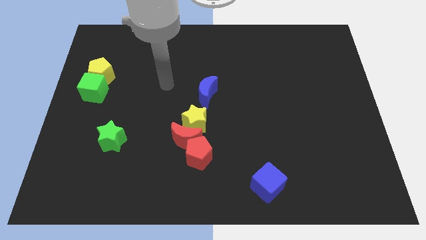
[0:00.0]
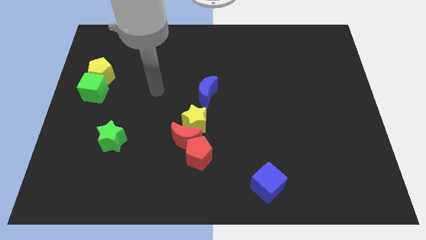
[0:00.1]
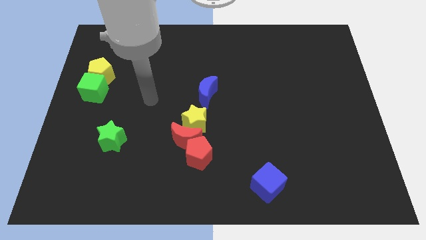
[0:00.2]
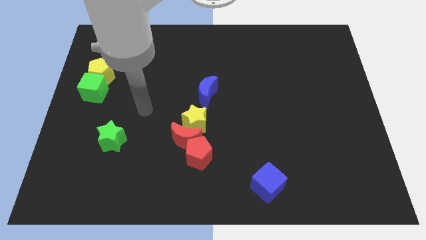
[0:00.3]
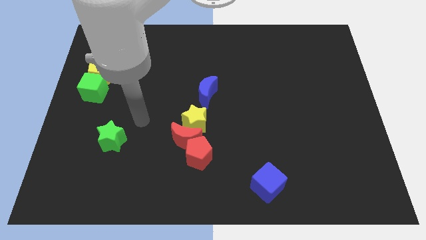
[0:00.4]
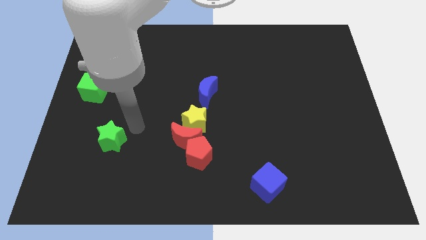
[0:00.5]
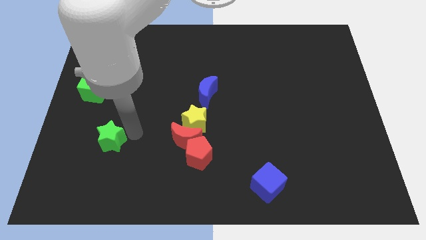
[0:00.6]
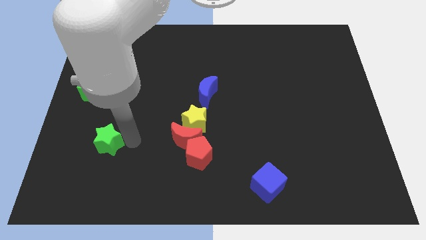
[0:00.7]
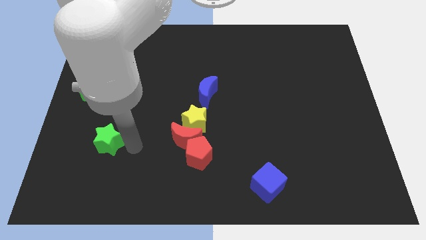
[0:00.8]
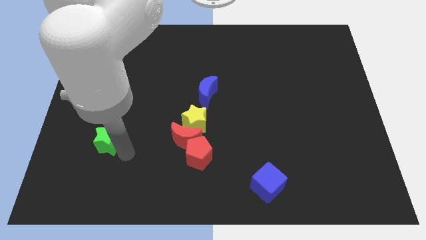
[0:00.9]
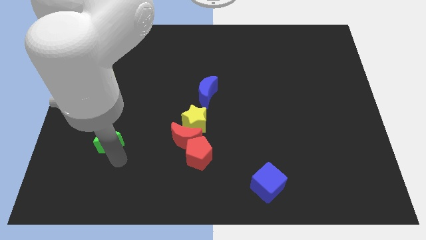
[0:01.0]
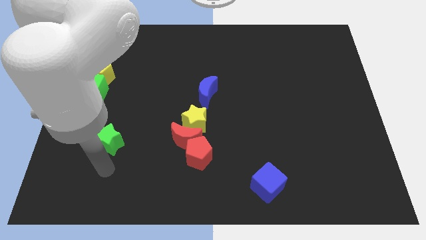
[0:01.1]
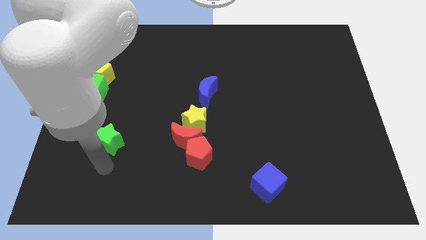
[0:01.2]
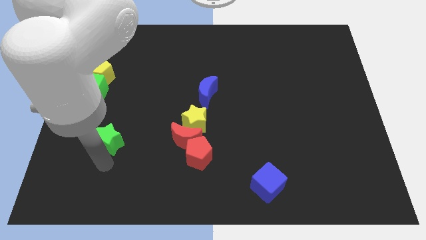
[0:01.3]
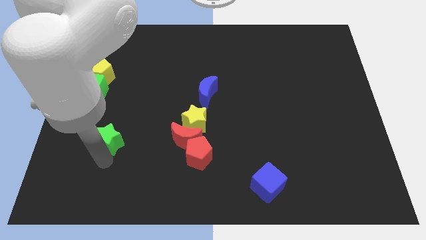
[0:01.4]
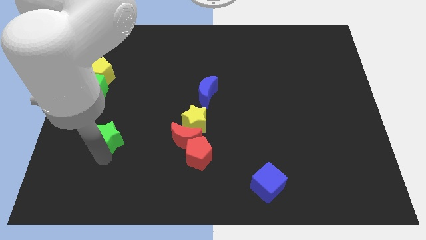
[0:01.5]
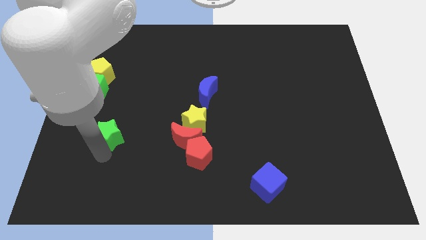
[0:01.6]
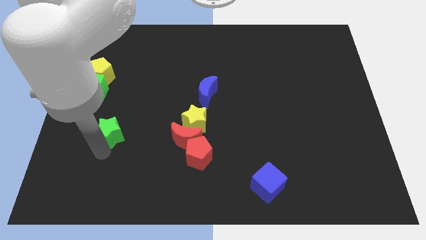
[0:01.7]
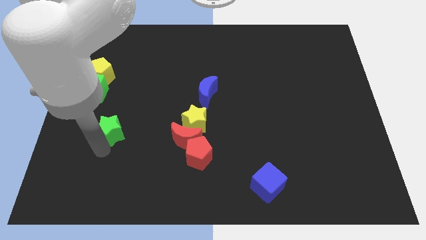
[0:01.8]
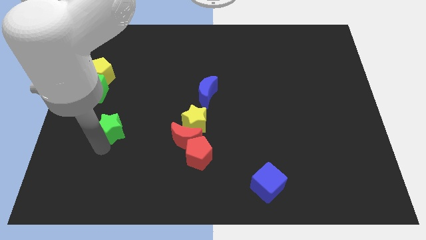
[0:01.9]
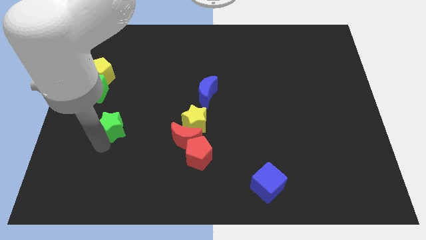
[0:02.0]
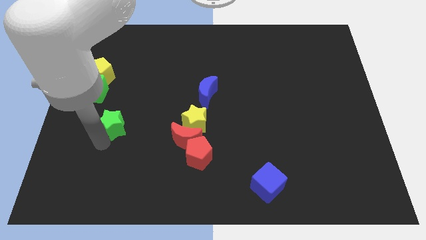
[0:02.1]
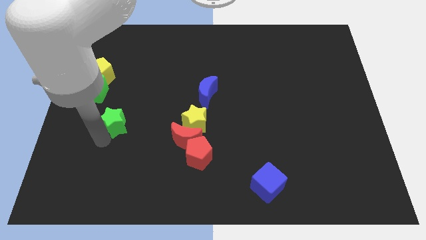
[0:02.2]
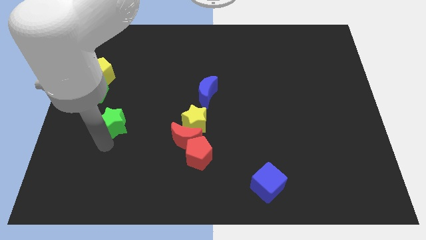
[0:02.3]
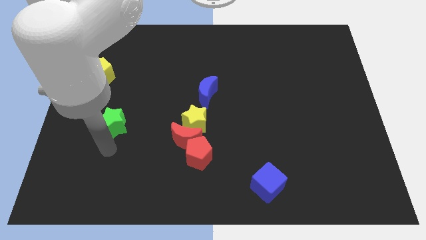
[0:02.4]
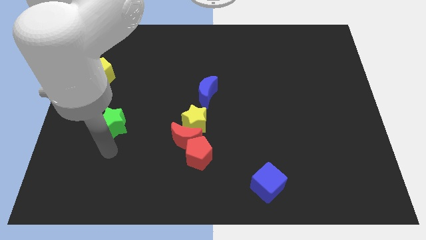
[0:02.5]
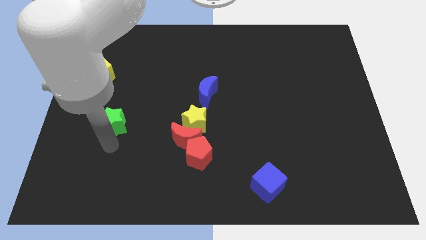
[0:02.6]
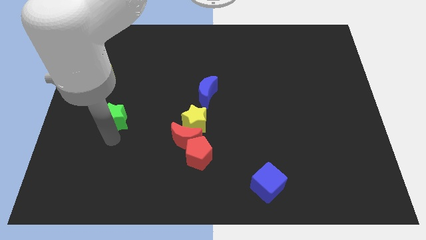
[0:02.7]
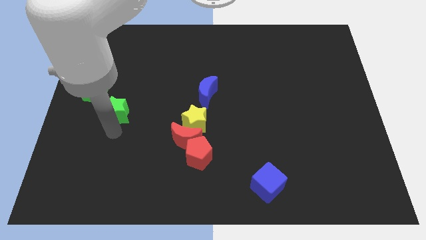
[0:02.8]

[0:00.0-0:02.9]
move the green star upwards a bit

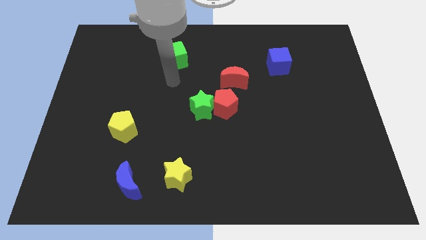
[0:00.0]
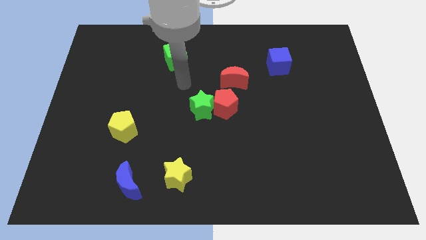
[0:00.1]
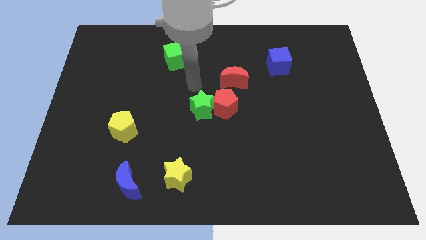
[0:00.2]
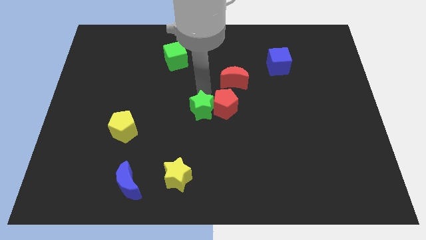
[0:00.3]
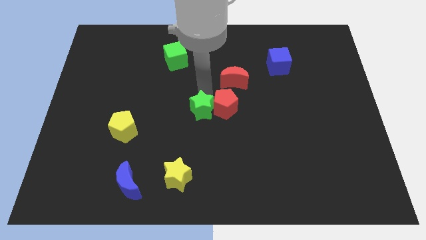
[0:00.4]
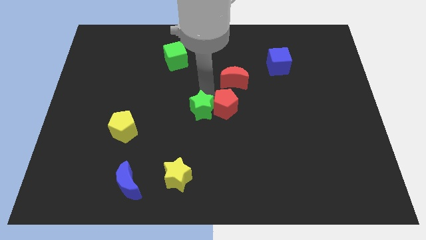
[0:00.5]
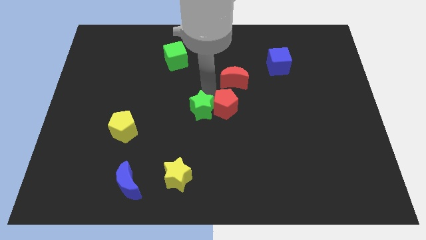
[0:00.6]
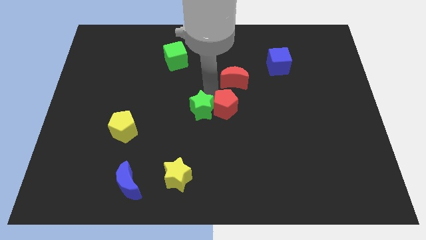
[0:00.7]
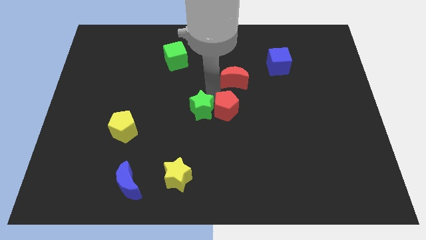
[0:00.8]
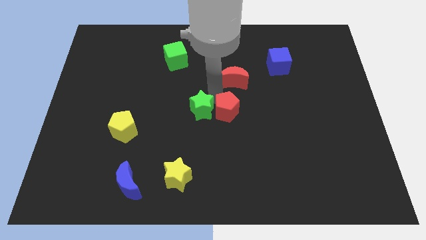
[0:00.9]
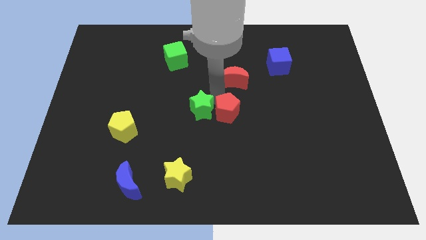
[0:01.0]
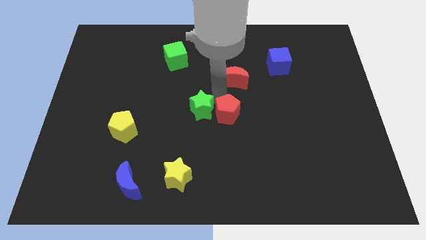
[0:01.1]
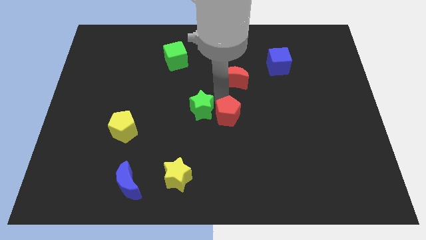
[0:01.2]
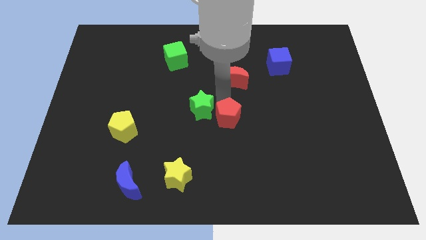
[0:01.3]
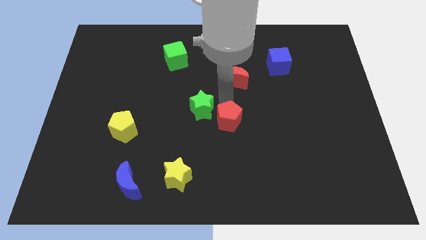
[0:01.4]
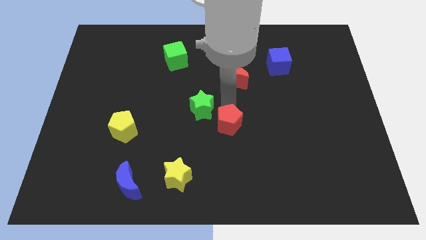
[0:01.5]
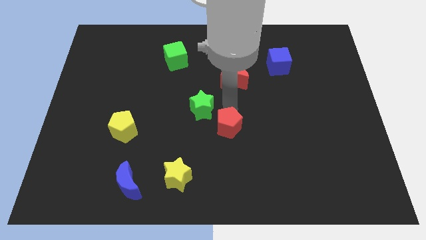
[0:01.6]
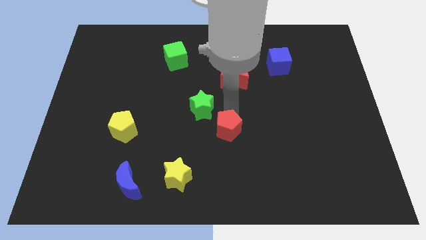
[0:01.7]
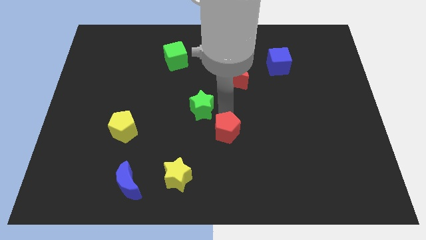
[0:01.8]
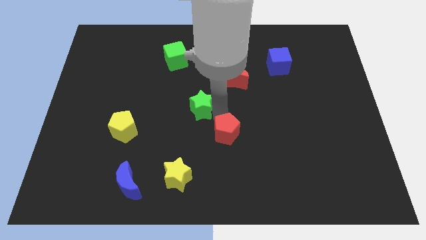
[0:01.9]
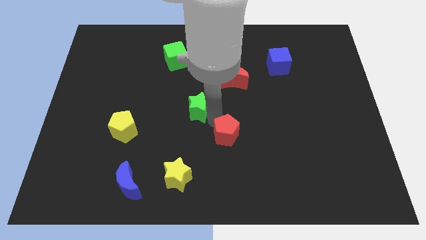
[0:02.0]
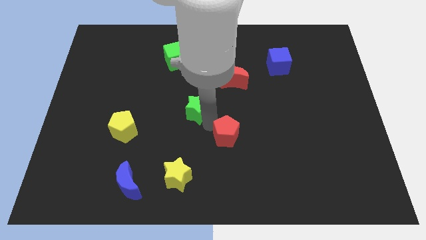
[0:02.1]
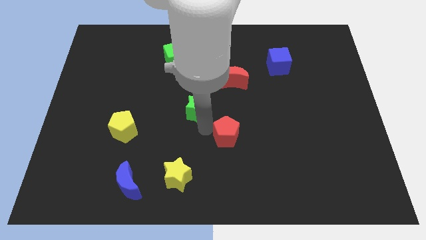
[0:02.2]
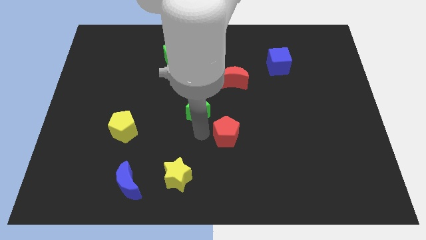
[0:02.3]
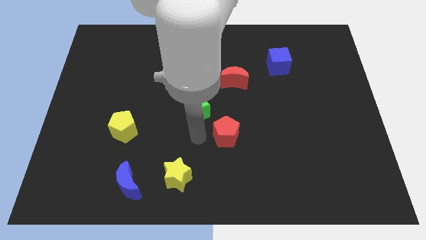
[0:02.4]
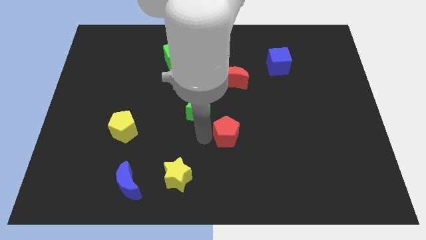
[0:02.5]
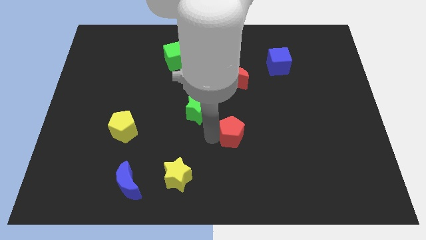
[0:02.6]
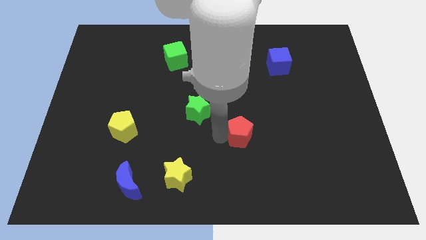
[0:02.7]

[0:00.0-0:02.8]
slightly push the red pentagon down and then right

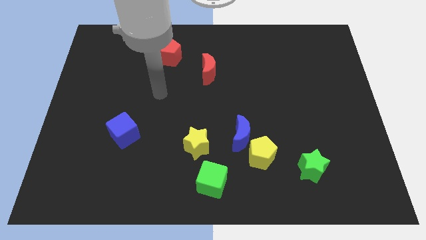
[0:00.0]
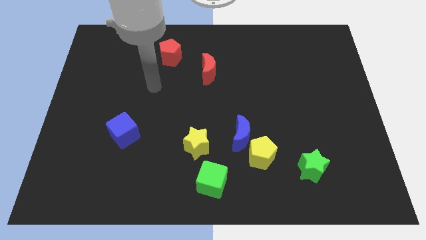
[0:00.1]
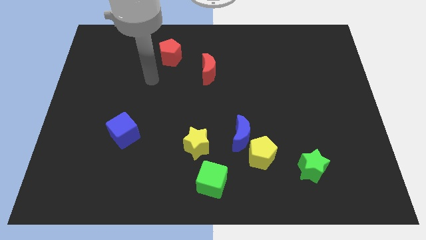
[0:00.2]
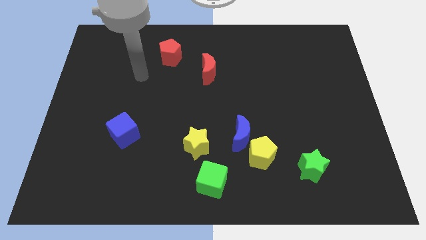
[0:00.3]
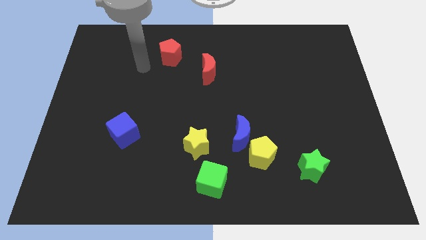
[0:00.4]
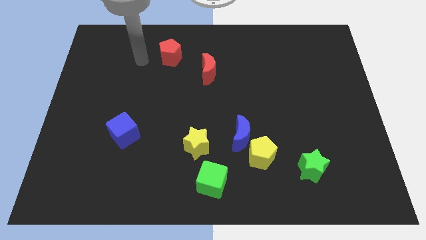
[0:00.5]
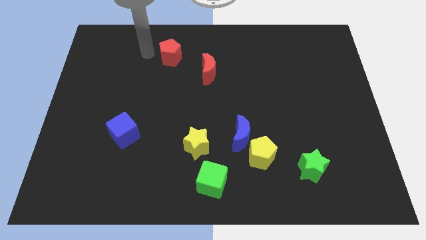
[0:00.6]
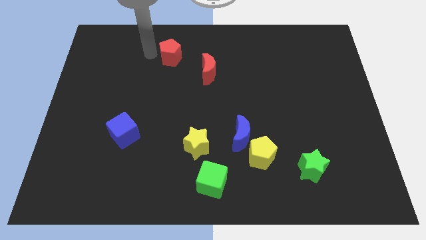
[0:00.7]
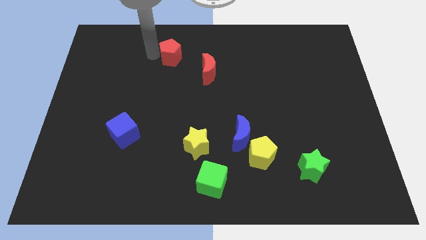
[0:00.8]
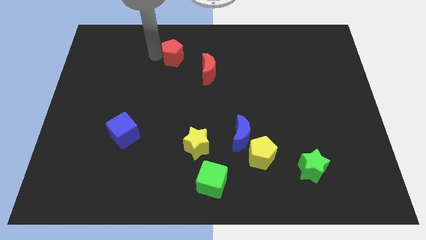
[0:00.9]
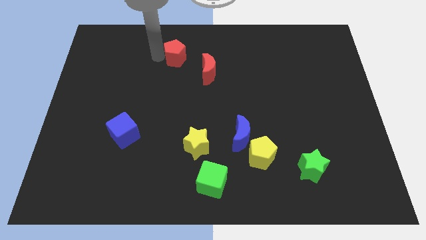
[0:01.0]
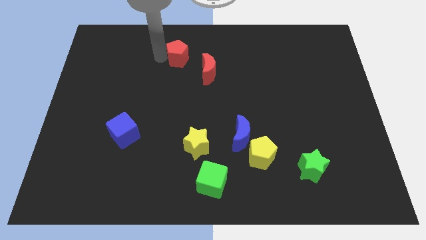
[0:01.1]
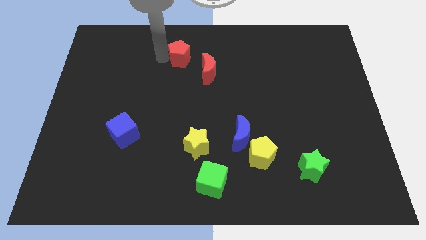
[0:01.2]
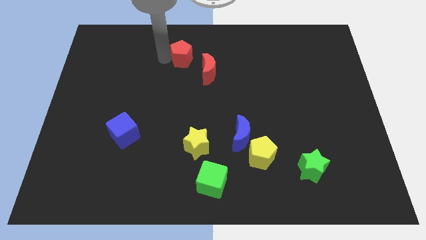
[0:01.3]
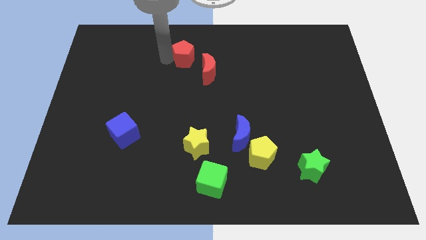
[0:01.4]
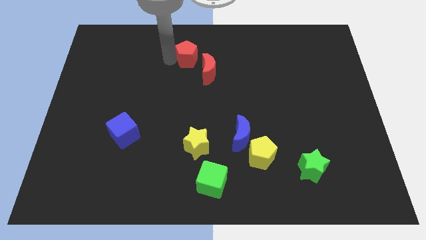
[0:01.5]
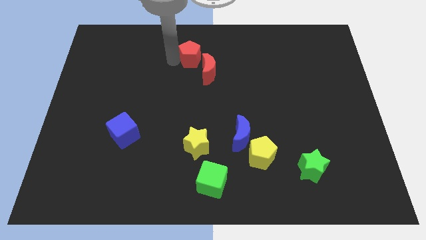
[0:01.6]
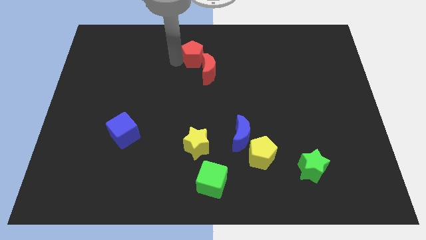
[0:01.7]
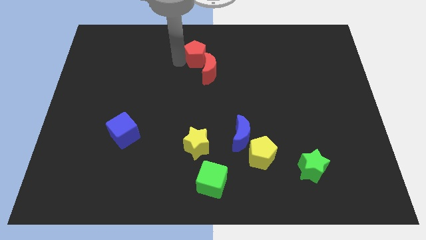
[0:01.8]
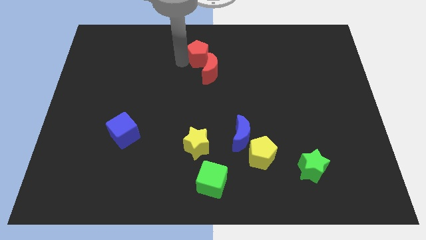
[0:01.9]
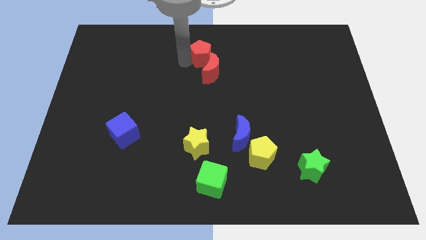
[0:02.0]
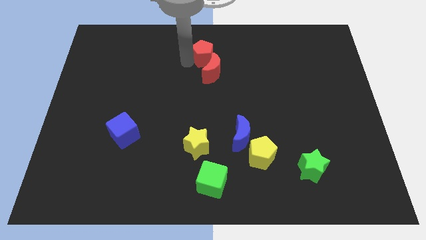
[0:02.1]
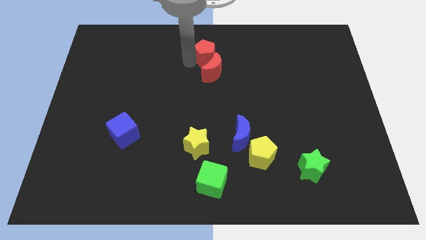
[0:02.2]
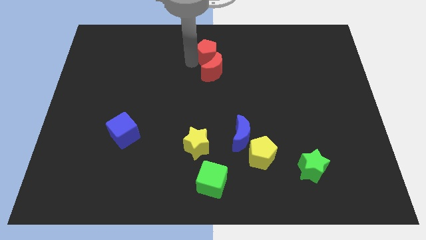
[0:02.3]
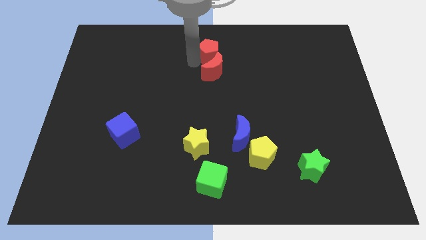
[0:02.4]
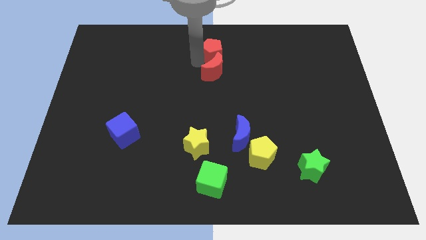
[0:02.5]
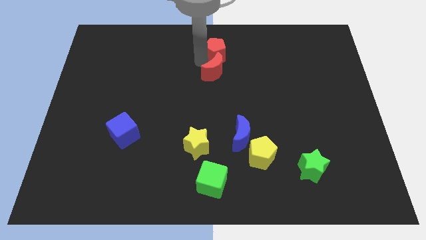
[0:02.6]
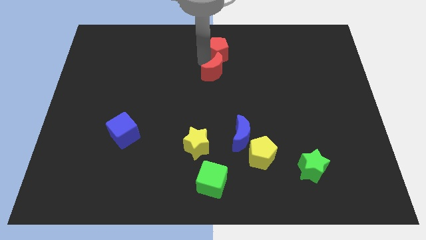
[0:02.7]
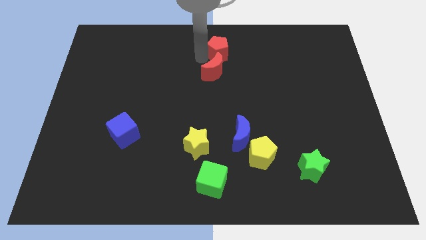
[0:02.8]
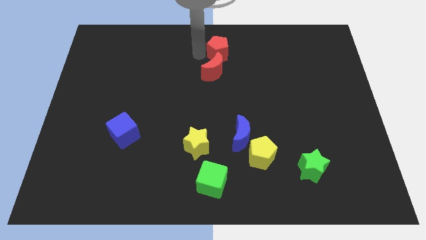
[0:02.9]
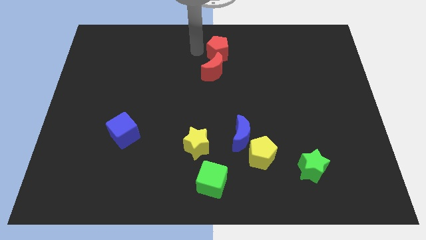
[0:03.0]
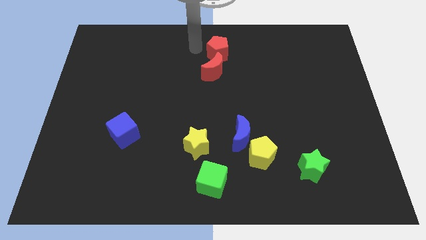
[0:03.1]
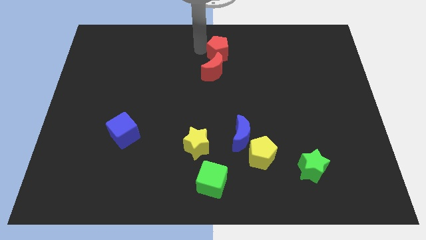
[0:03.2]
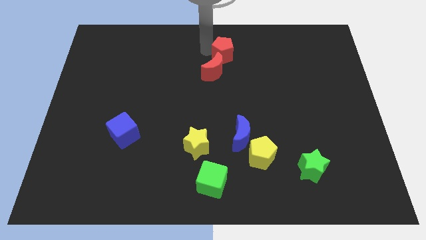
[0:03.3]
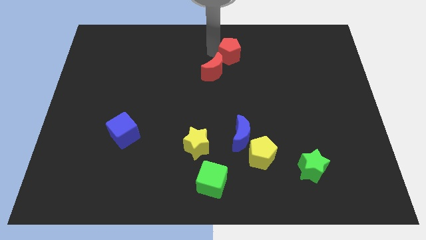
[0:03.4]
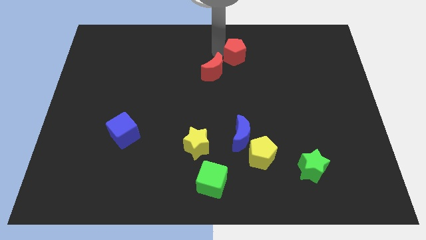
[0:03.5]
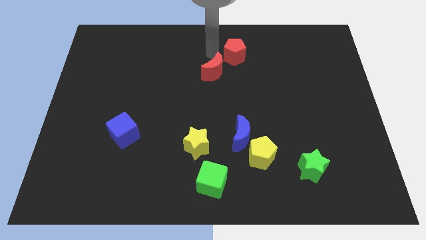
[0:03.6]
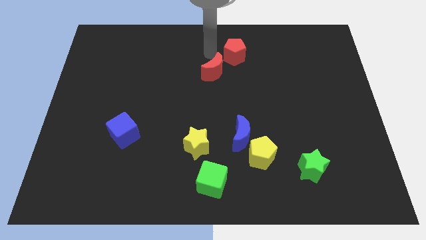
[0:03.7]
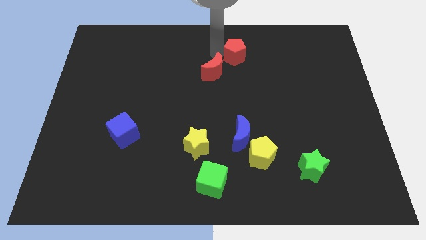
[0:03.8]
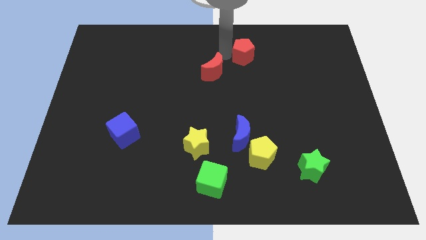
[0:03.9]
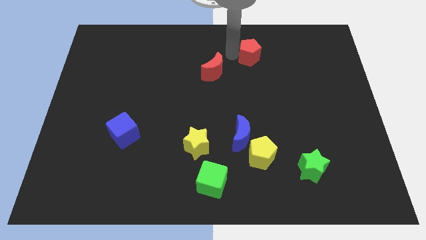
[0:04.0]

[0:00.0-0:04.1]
move the red pentagon right
